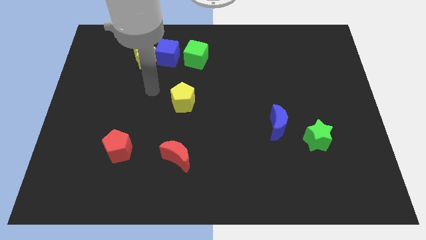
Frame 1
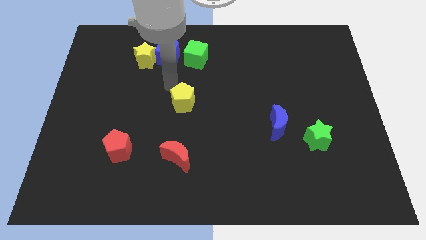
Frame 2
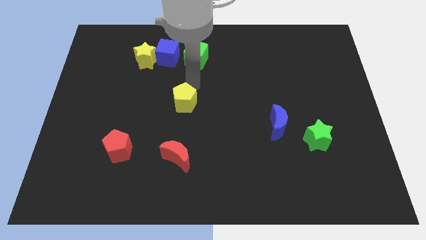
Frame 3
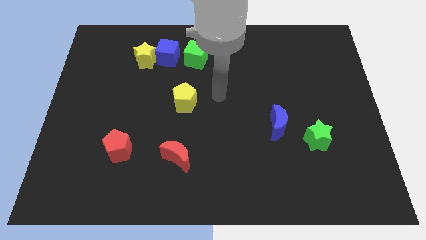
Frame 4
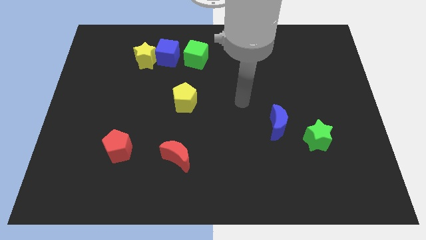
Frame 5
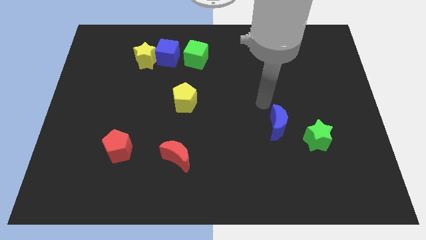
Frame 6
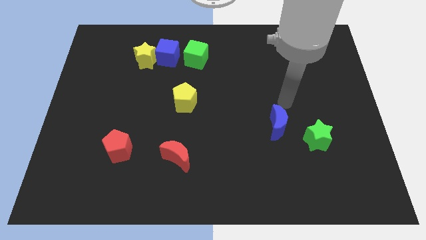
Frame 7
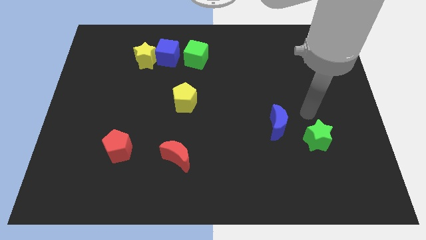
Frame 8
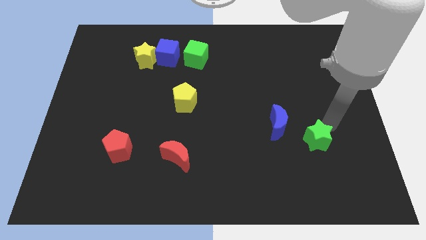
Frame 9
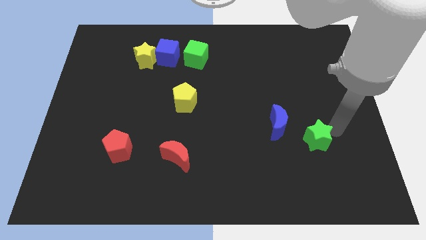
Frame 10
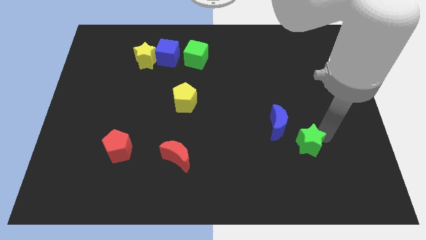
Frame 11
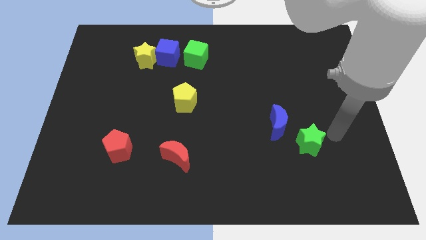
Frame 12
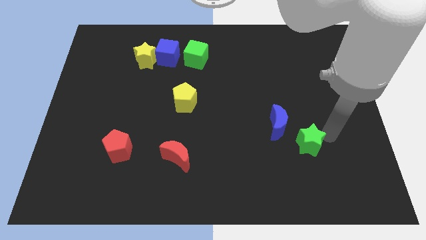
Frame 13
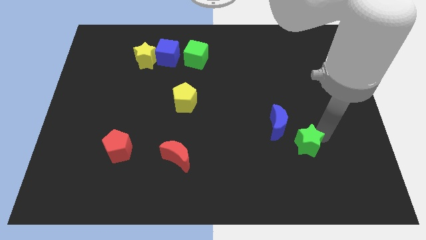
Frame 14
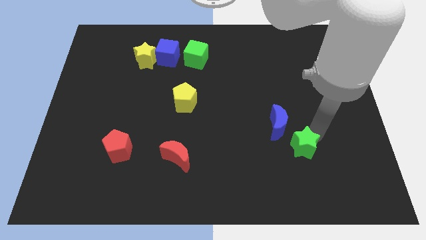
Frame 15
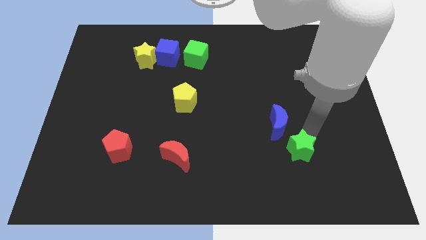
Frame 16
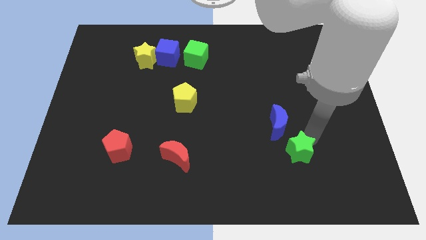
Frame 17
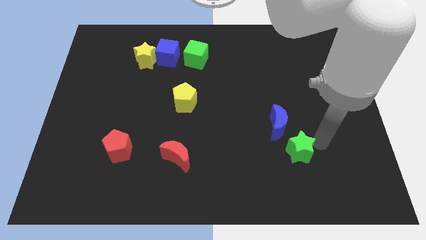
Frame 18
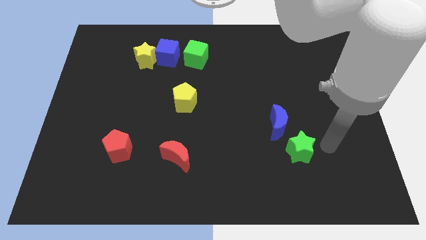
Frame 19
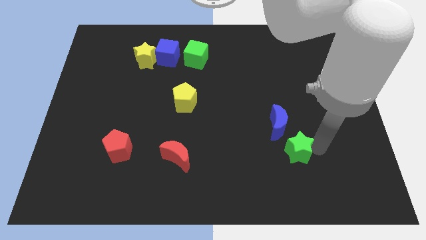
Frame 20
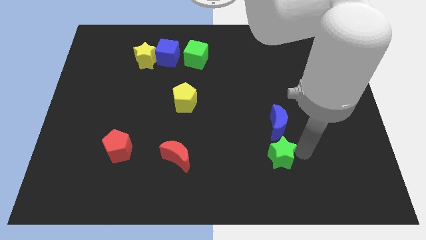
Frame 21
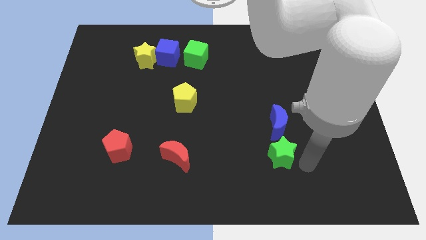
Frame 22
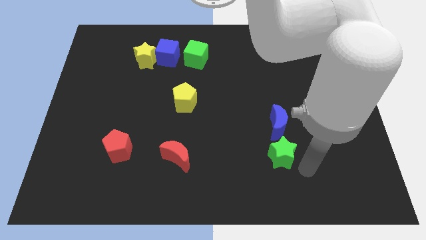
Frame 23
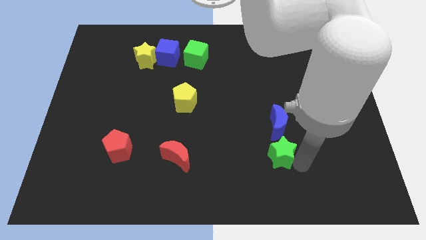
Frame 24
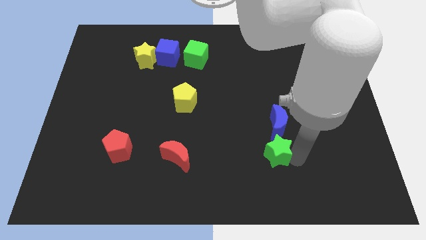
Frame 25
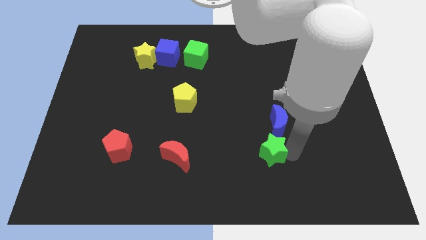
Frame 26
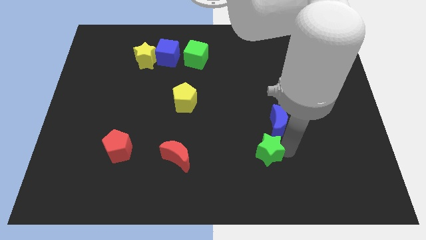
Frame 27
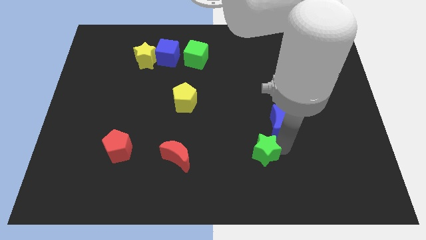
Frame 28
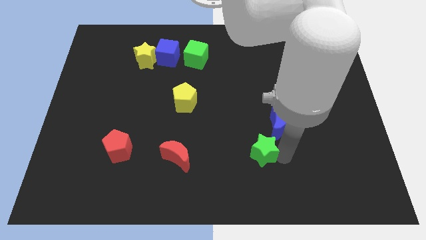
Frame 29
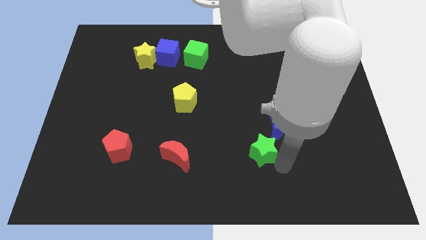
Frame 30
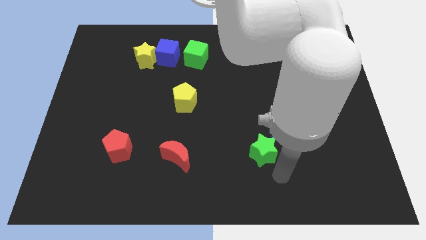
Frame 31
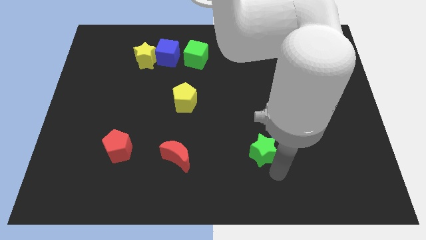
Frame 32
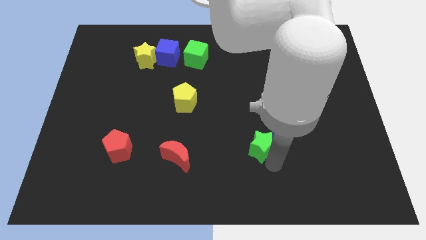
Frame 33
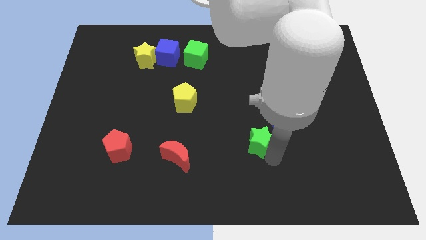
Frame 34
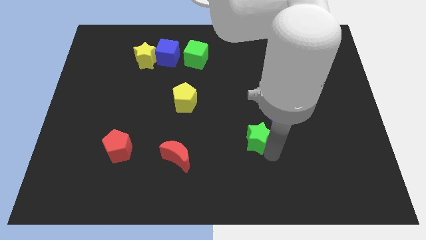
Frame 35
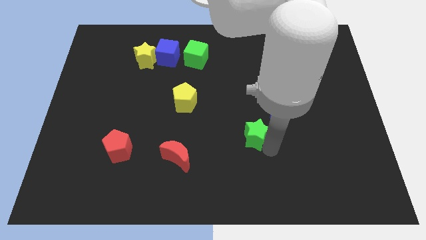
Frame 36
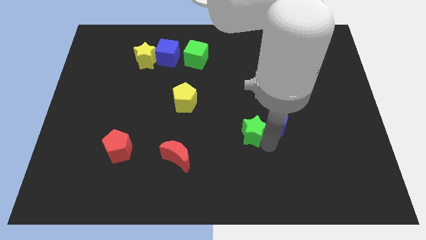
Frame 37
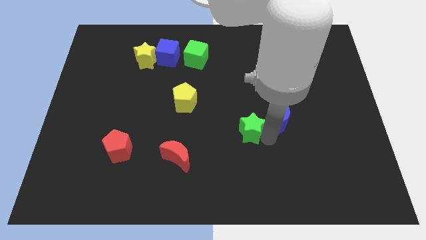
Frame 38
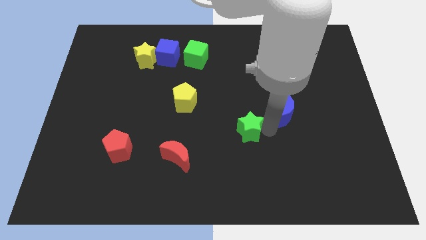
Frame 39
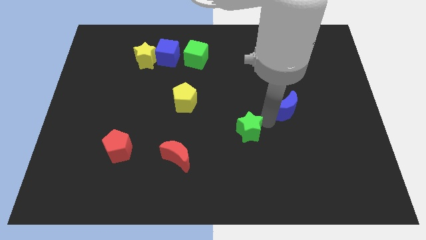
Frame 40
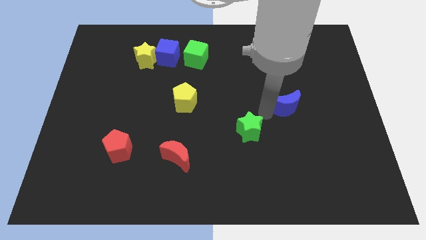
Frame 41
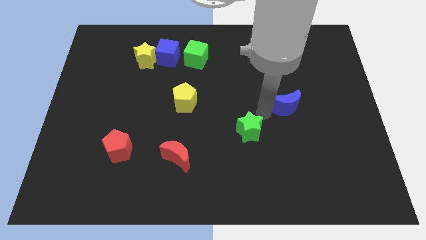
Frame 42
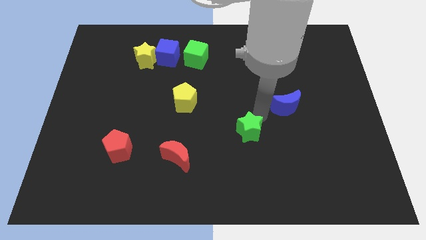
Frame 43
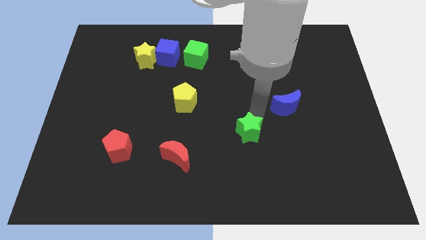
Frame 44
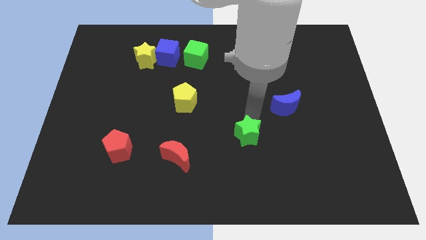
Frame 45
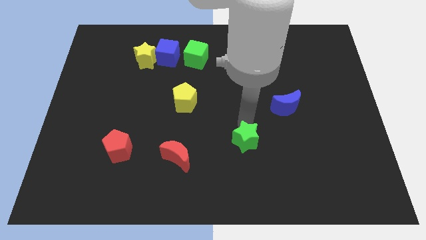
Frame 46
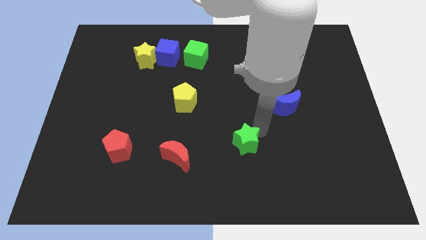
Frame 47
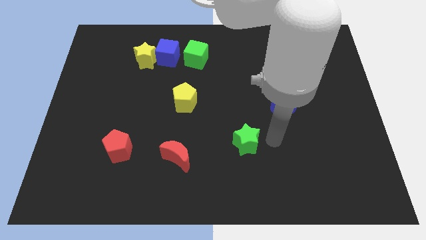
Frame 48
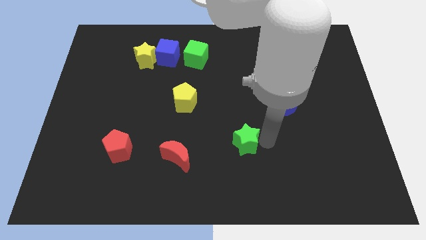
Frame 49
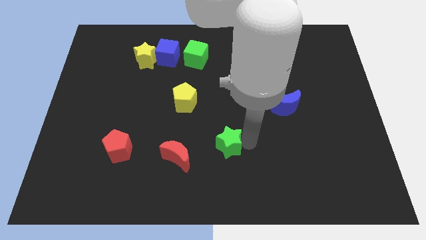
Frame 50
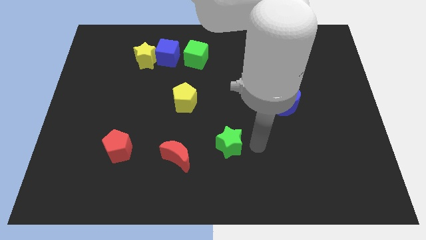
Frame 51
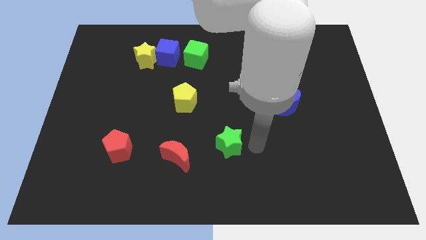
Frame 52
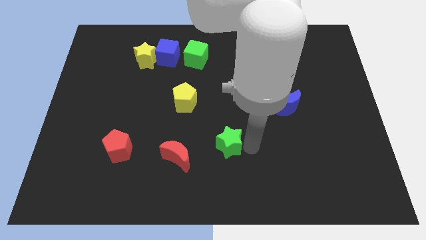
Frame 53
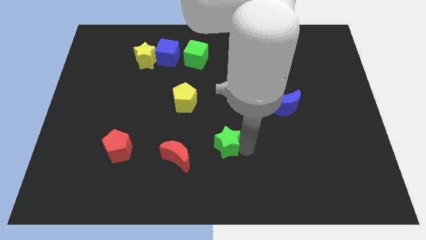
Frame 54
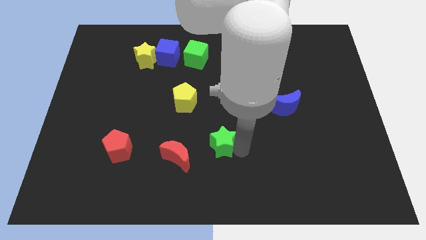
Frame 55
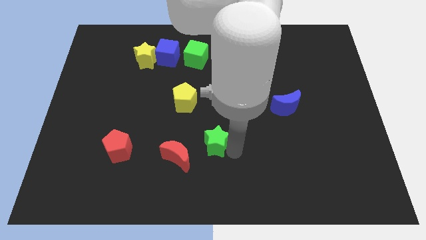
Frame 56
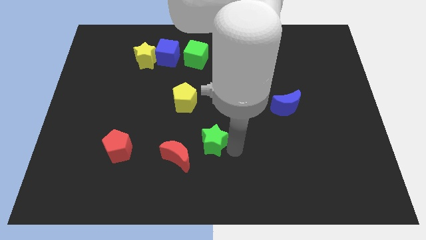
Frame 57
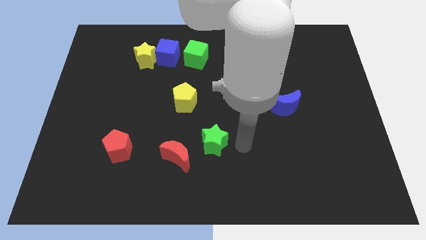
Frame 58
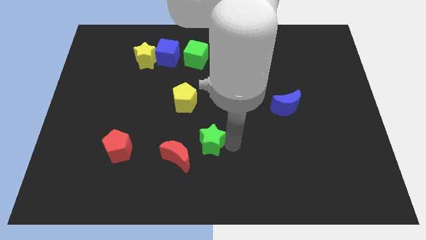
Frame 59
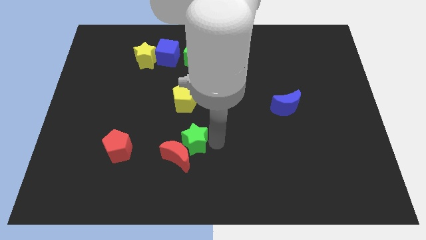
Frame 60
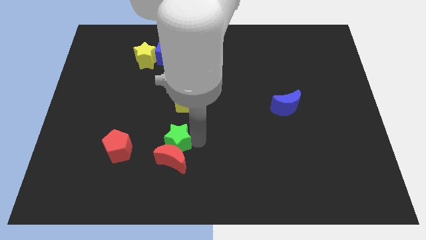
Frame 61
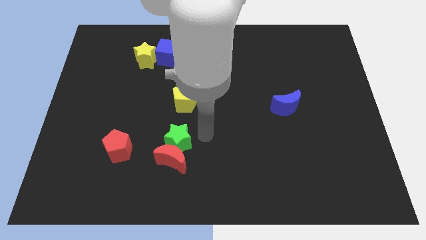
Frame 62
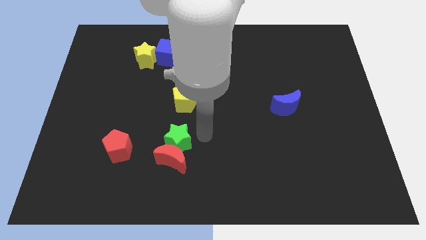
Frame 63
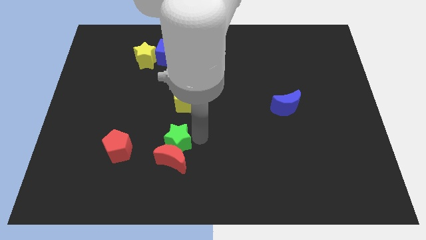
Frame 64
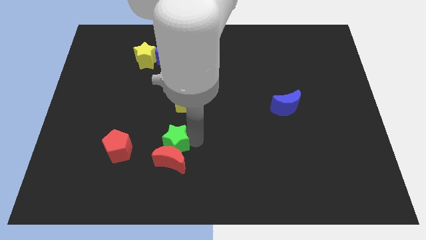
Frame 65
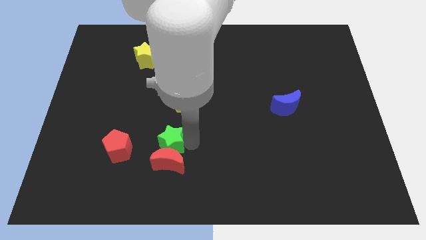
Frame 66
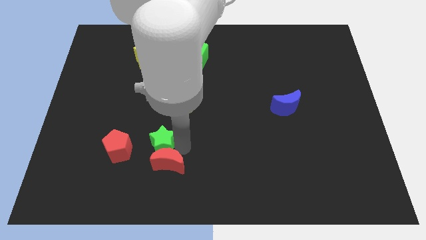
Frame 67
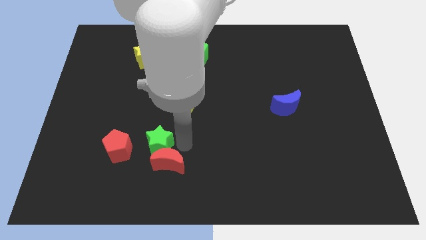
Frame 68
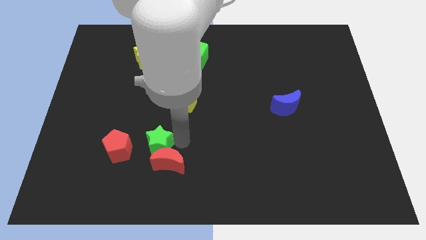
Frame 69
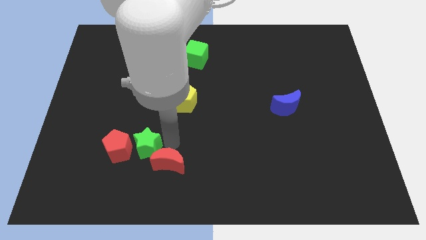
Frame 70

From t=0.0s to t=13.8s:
slide the green star towards the red pentagon
